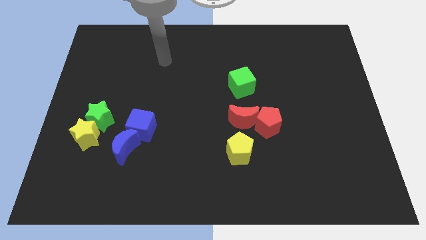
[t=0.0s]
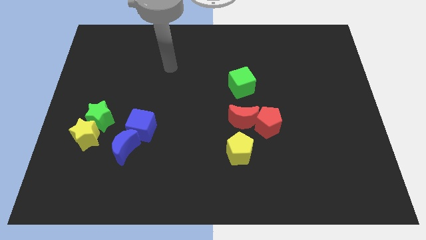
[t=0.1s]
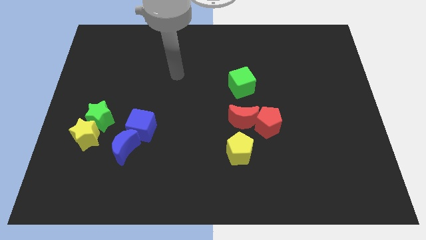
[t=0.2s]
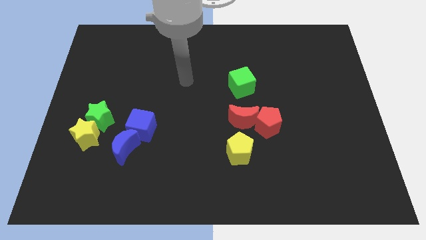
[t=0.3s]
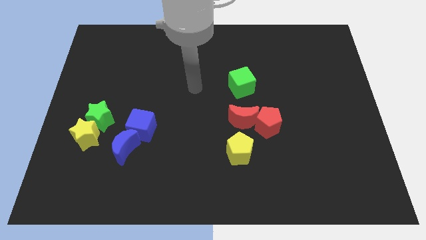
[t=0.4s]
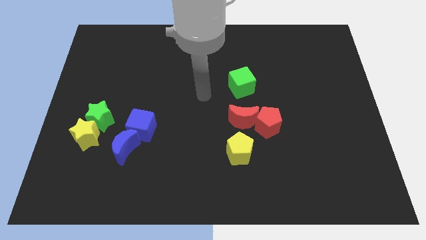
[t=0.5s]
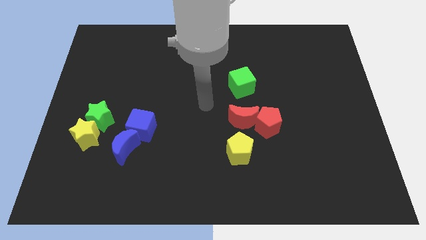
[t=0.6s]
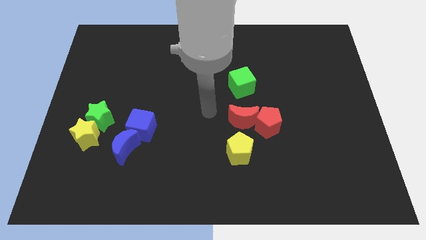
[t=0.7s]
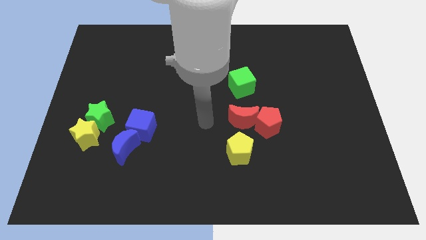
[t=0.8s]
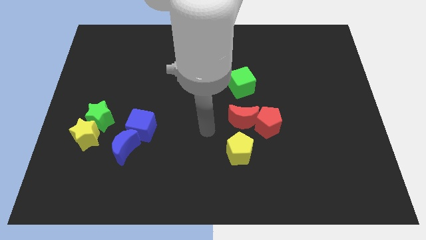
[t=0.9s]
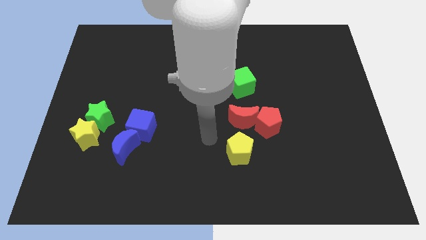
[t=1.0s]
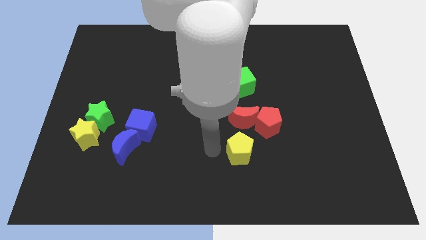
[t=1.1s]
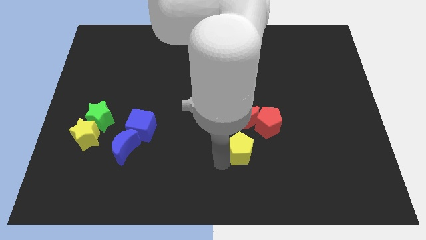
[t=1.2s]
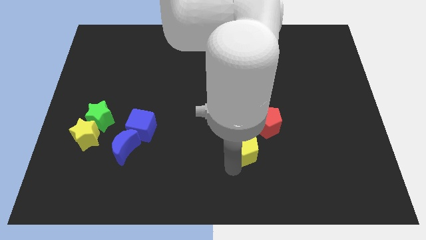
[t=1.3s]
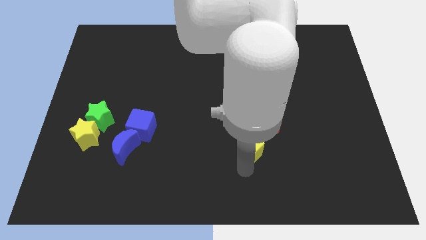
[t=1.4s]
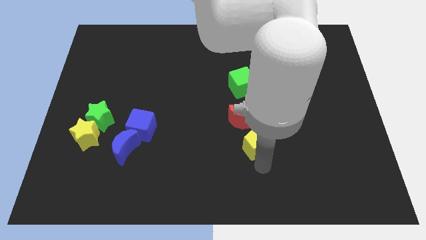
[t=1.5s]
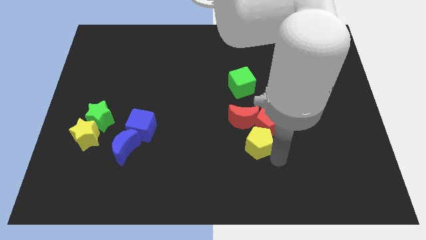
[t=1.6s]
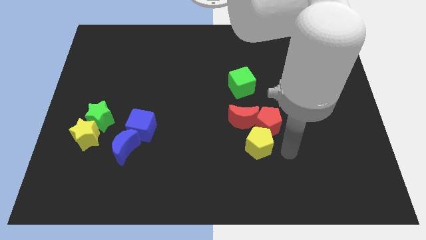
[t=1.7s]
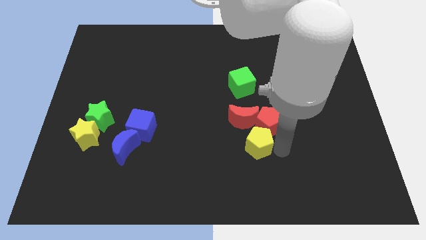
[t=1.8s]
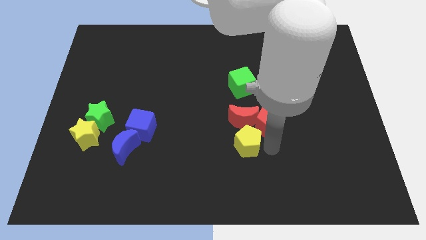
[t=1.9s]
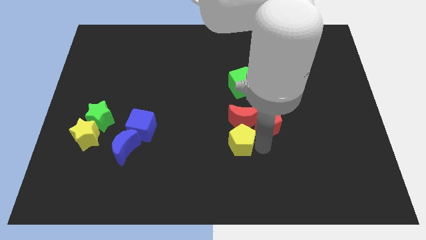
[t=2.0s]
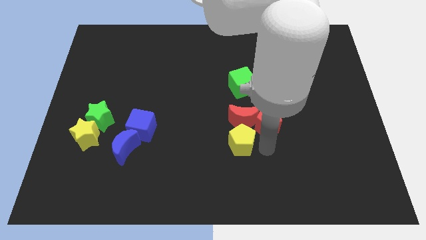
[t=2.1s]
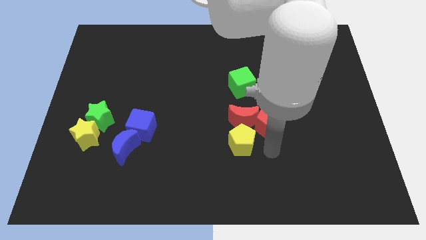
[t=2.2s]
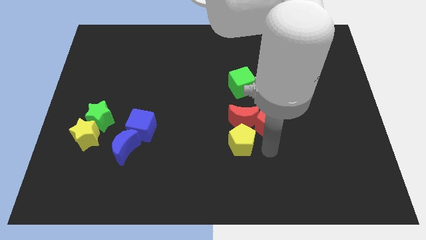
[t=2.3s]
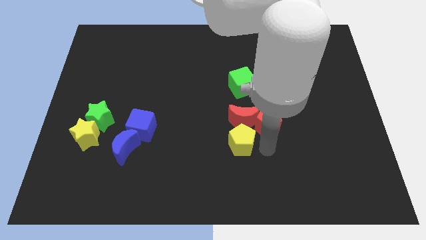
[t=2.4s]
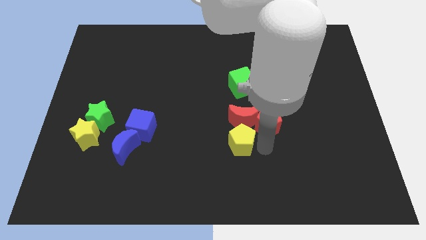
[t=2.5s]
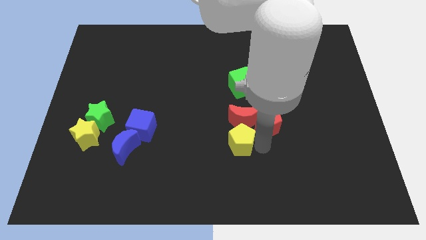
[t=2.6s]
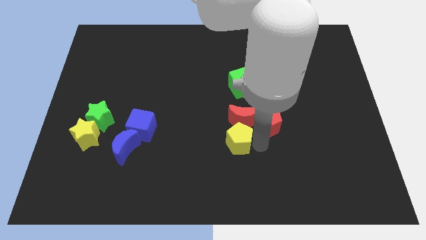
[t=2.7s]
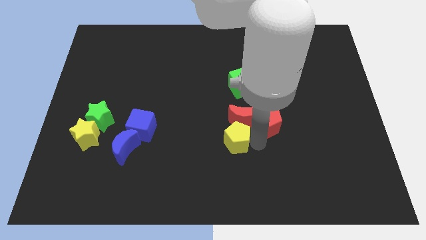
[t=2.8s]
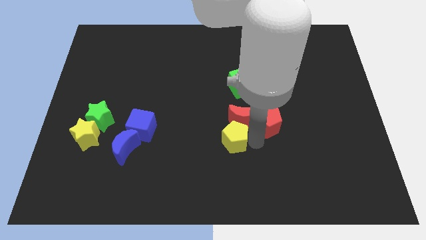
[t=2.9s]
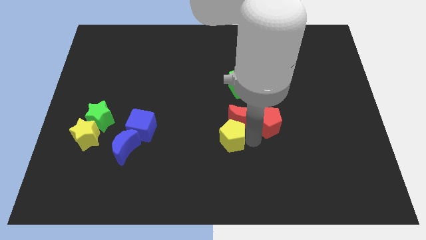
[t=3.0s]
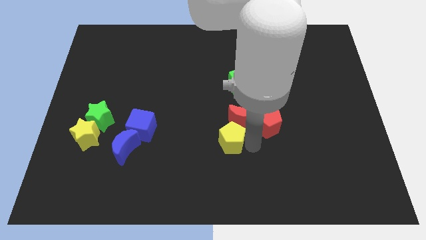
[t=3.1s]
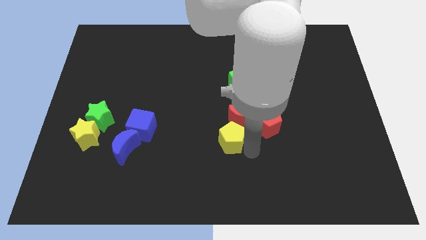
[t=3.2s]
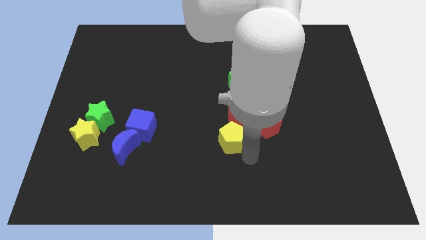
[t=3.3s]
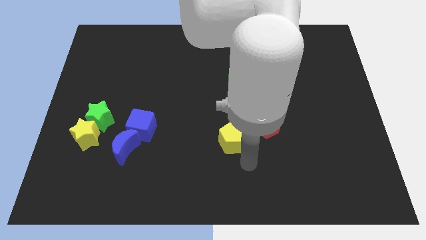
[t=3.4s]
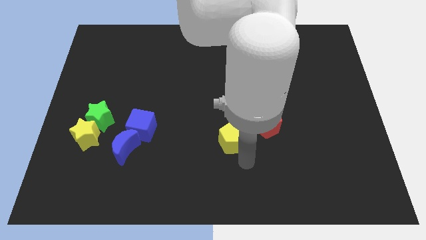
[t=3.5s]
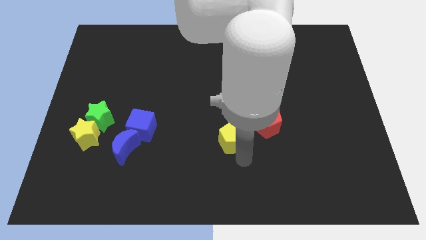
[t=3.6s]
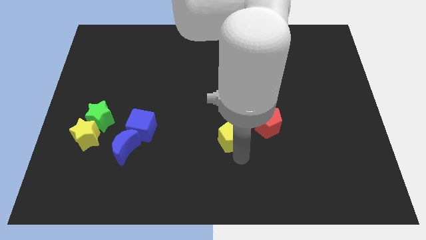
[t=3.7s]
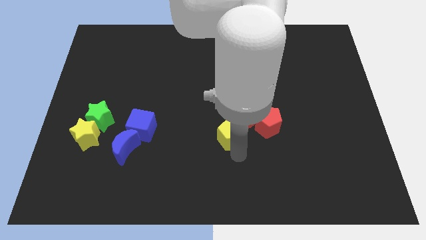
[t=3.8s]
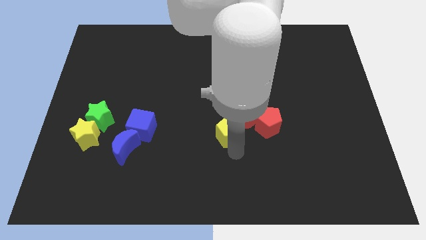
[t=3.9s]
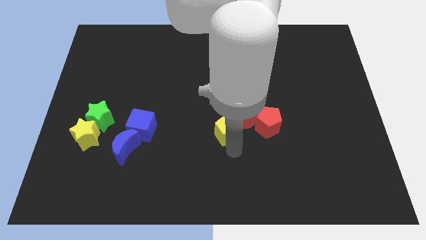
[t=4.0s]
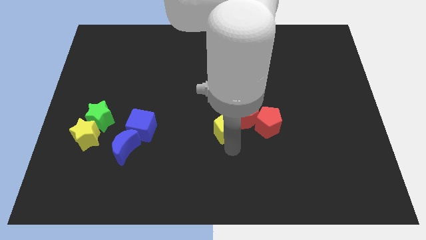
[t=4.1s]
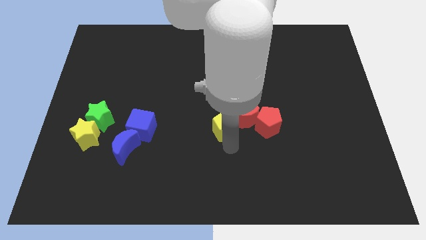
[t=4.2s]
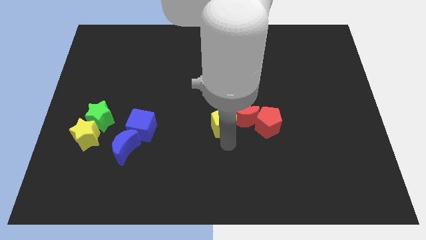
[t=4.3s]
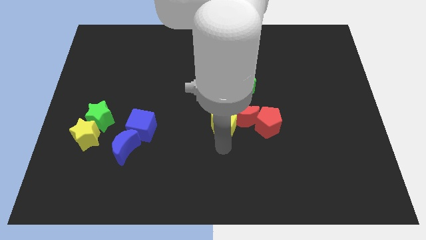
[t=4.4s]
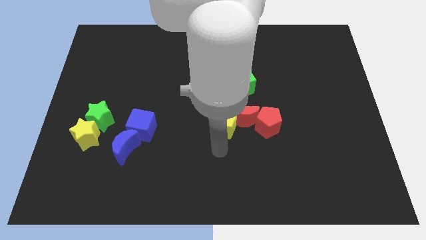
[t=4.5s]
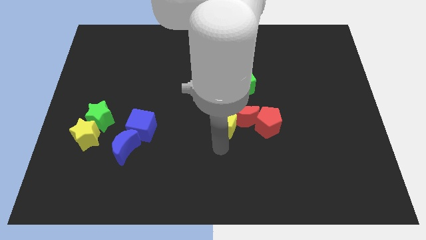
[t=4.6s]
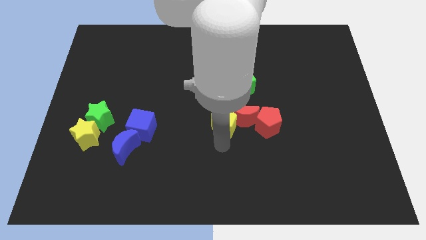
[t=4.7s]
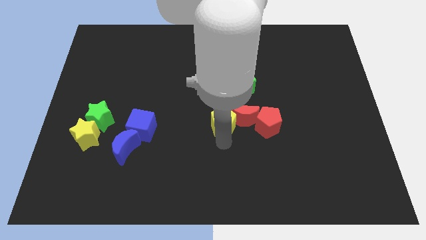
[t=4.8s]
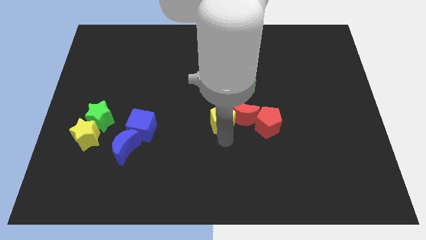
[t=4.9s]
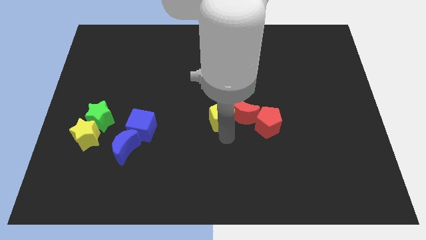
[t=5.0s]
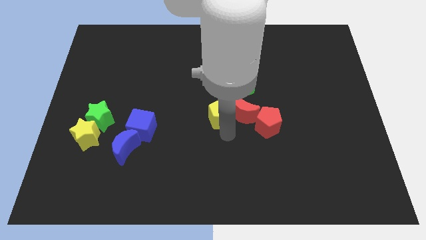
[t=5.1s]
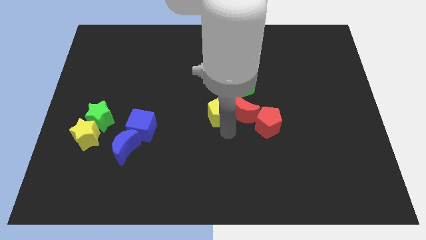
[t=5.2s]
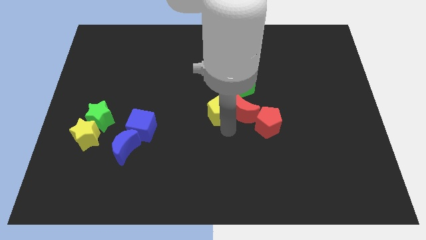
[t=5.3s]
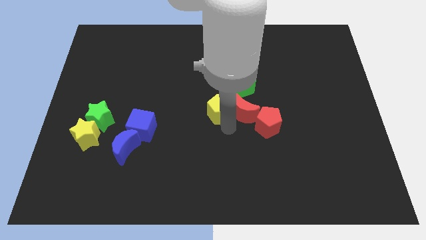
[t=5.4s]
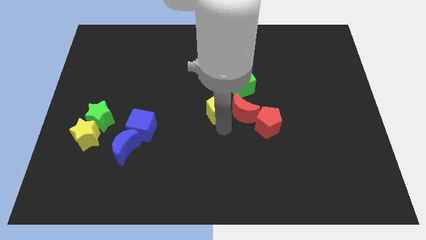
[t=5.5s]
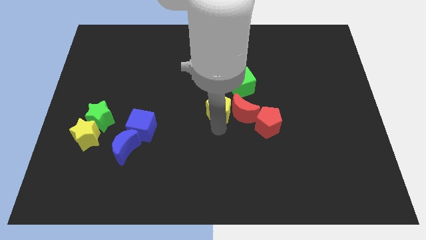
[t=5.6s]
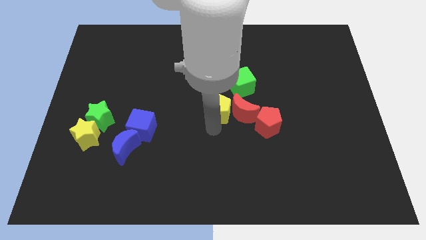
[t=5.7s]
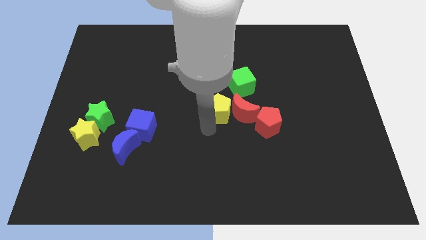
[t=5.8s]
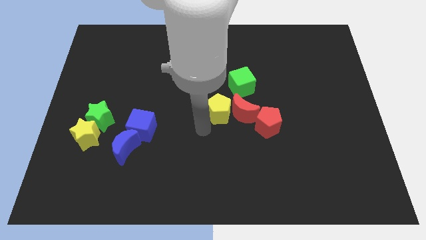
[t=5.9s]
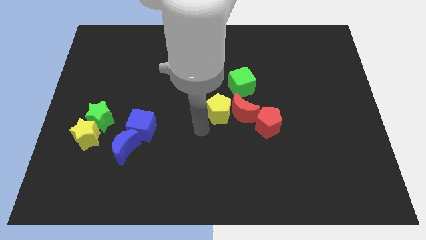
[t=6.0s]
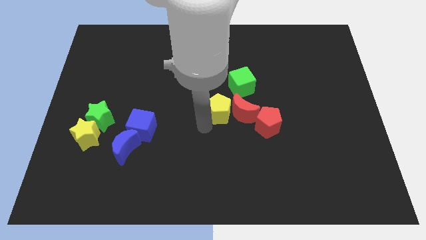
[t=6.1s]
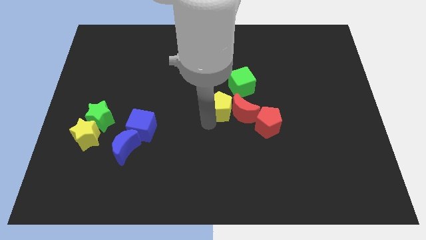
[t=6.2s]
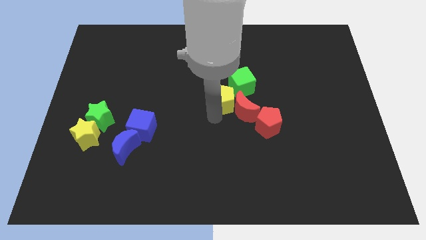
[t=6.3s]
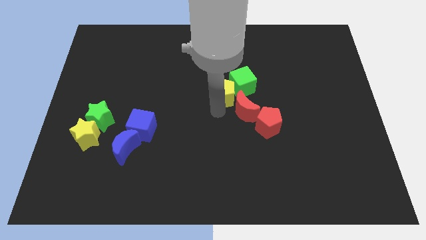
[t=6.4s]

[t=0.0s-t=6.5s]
put the yellow pentagon next to the green cube

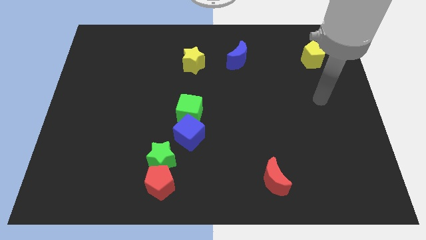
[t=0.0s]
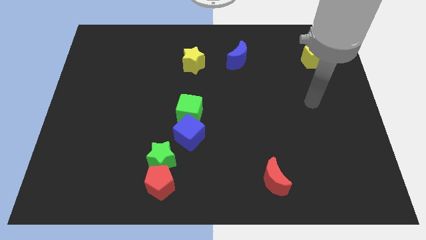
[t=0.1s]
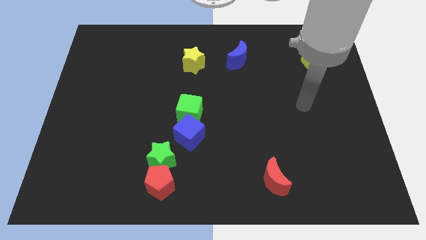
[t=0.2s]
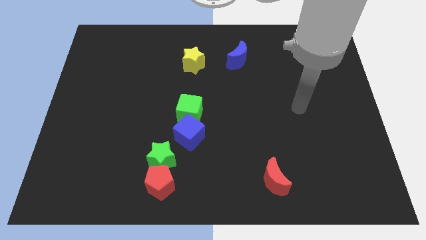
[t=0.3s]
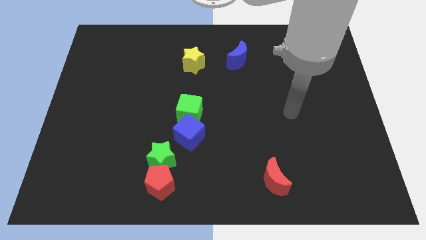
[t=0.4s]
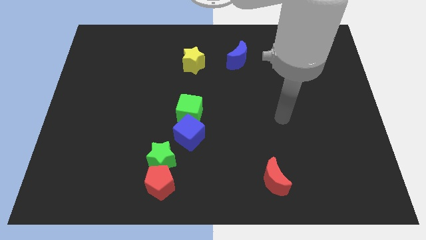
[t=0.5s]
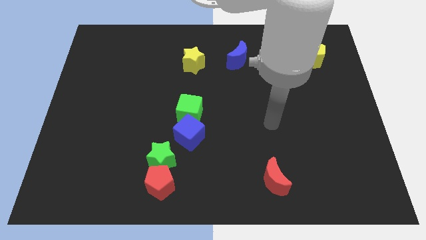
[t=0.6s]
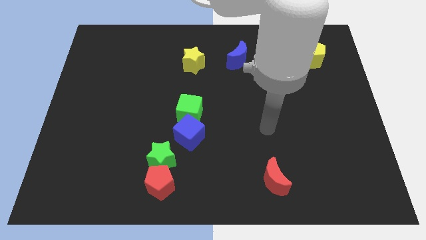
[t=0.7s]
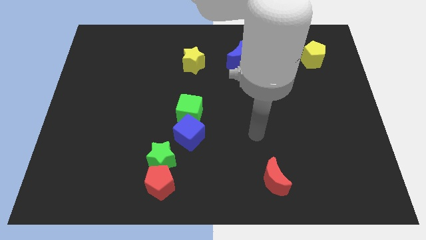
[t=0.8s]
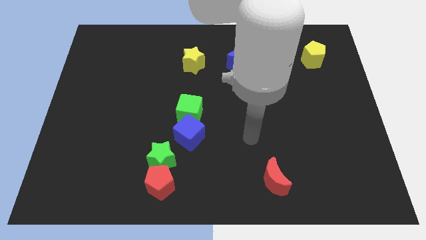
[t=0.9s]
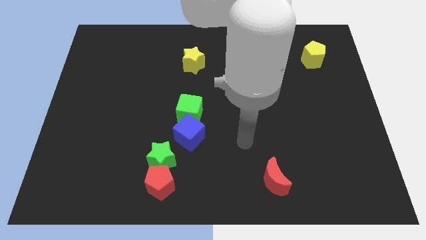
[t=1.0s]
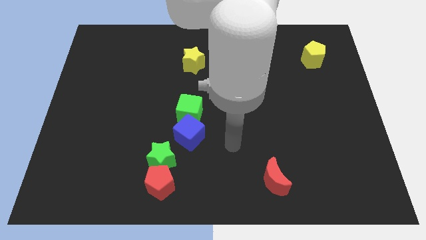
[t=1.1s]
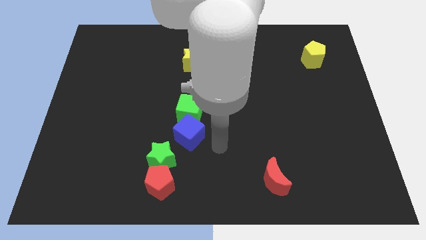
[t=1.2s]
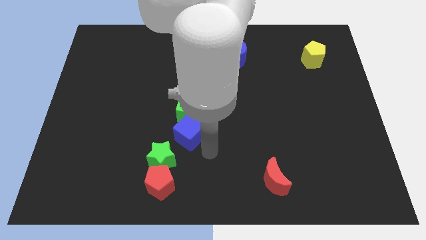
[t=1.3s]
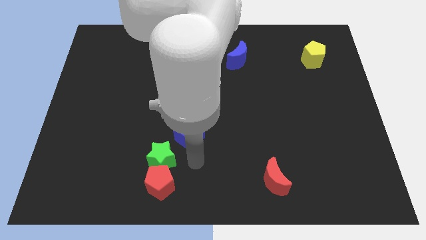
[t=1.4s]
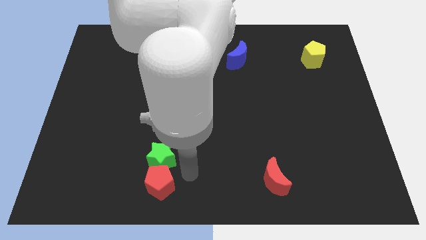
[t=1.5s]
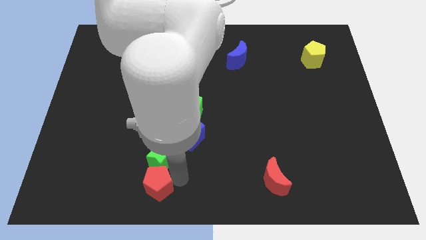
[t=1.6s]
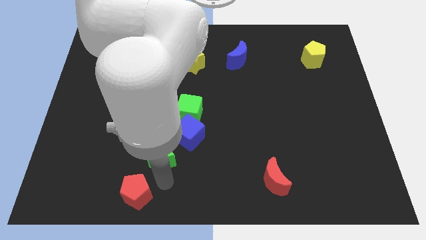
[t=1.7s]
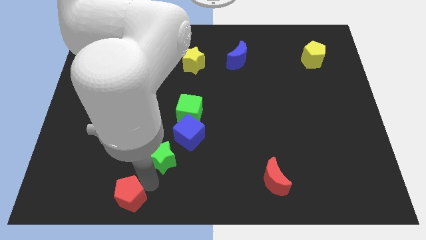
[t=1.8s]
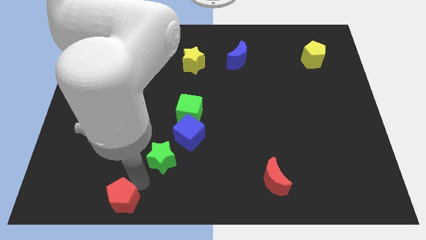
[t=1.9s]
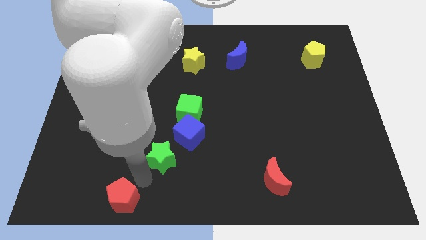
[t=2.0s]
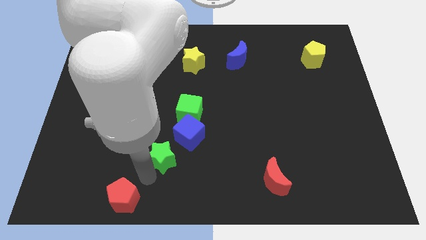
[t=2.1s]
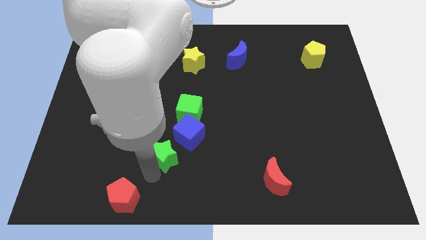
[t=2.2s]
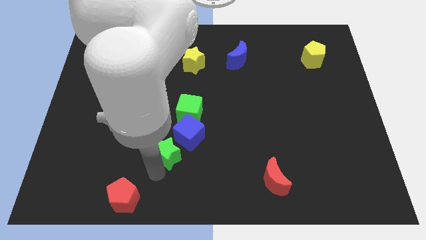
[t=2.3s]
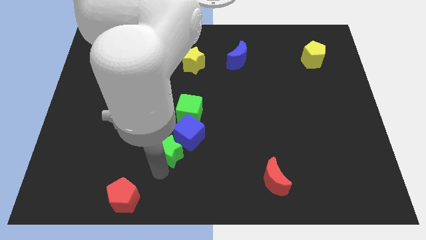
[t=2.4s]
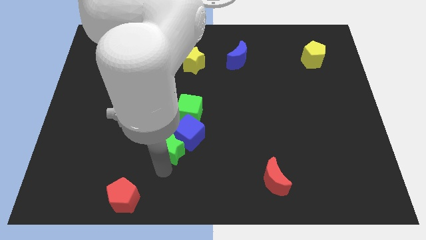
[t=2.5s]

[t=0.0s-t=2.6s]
put the green star close to the blue cube
